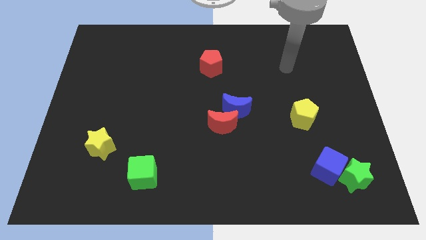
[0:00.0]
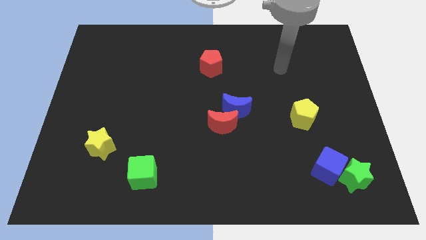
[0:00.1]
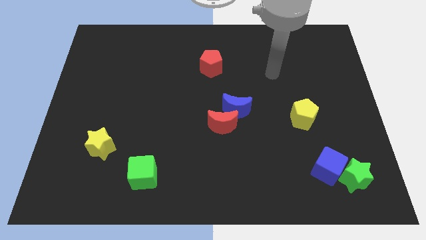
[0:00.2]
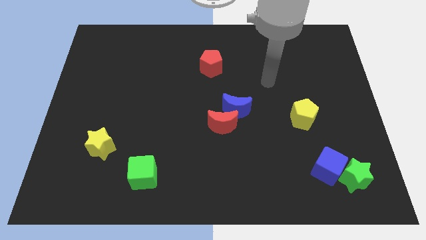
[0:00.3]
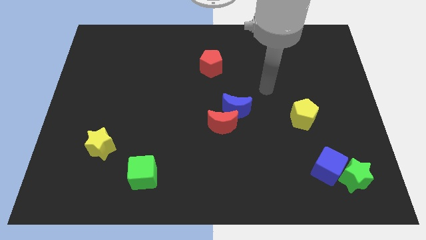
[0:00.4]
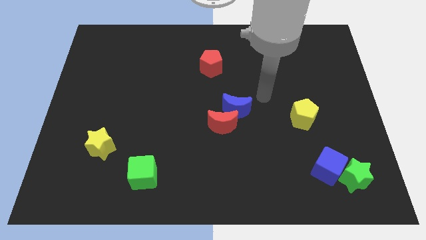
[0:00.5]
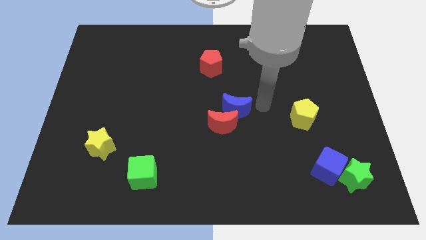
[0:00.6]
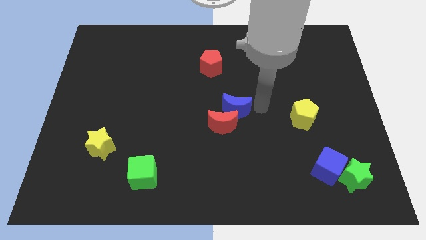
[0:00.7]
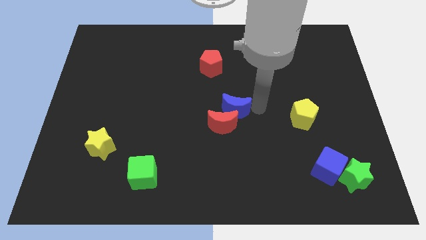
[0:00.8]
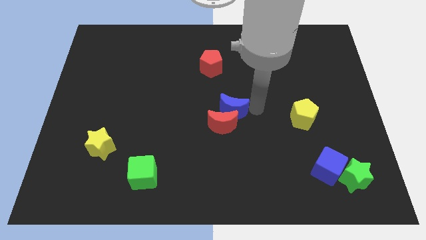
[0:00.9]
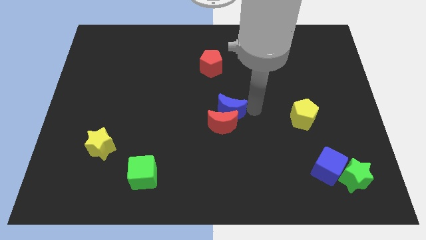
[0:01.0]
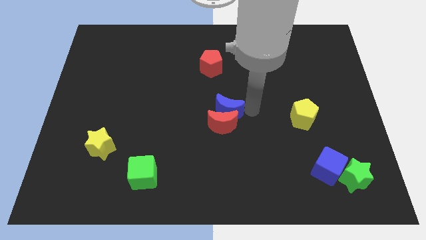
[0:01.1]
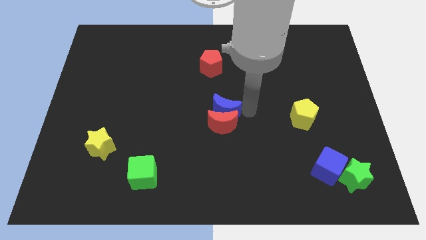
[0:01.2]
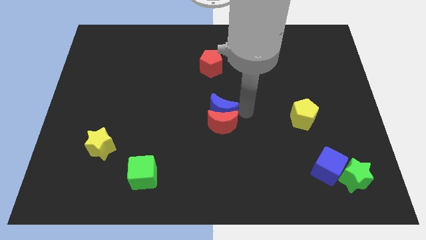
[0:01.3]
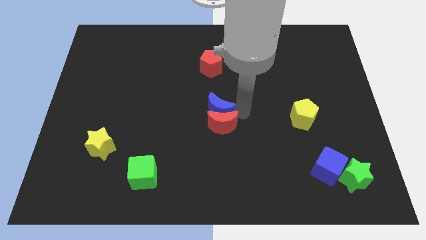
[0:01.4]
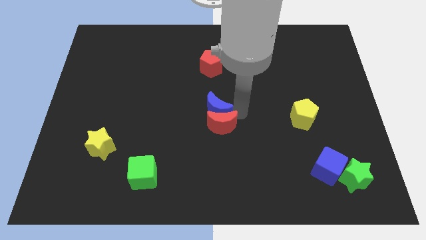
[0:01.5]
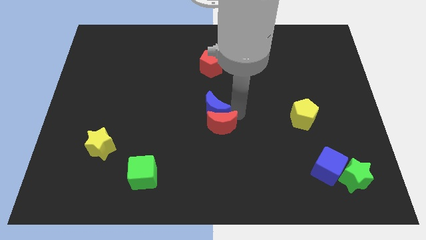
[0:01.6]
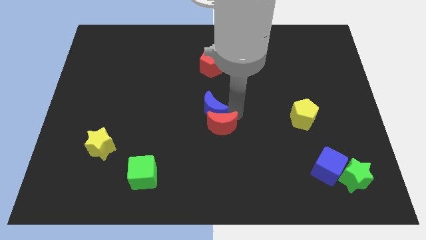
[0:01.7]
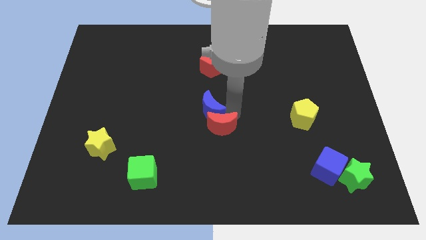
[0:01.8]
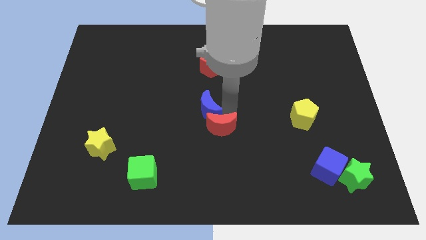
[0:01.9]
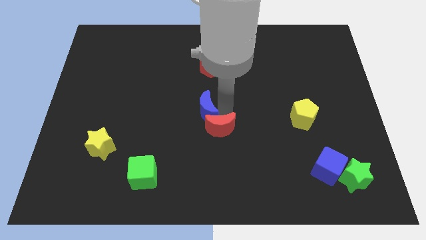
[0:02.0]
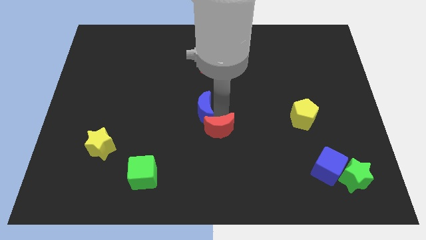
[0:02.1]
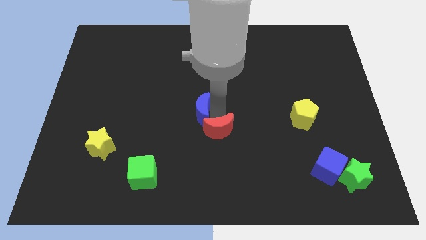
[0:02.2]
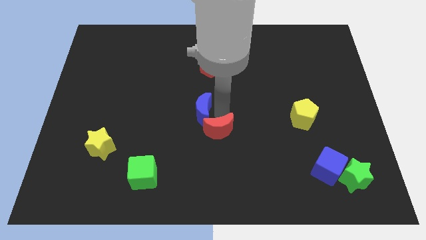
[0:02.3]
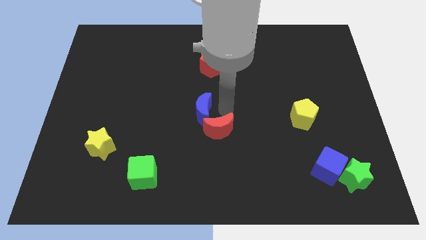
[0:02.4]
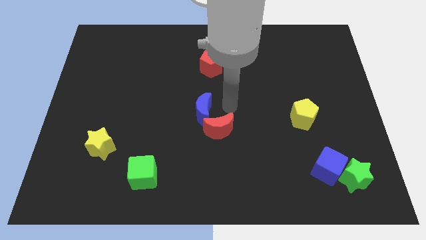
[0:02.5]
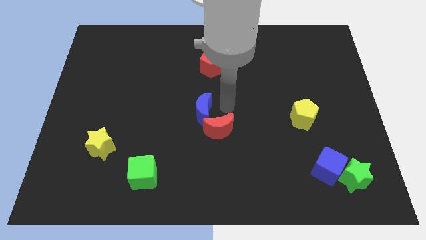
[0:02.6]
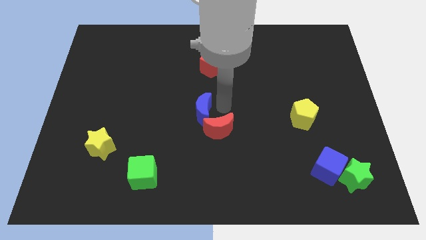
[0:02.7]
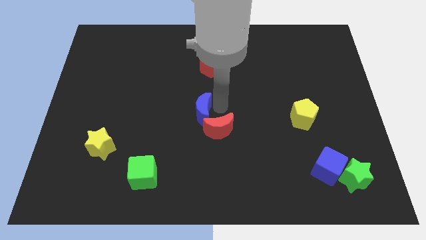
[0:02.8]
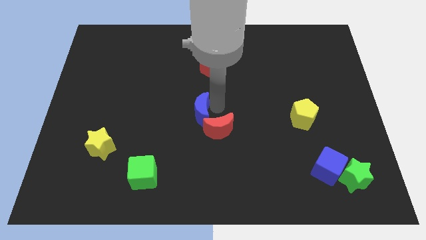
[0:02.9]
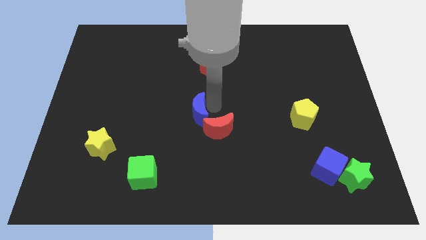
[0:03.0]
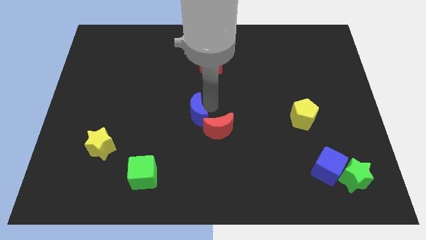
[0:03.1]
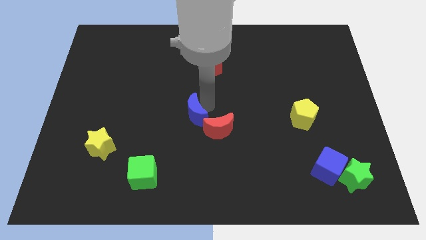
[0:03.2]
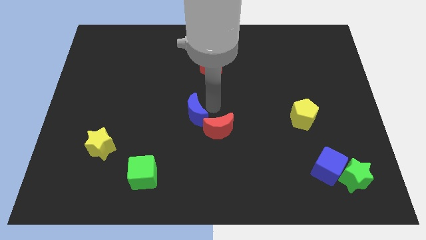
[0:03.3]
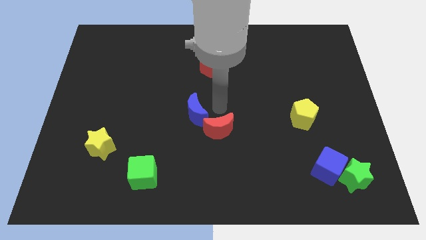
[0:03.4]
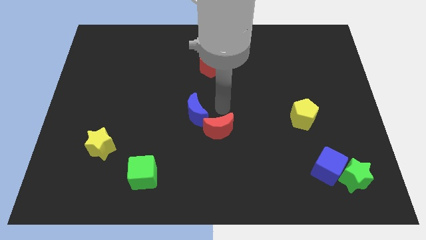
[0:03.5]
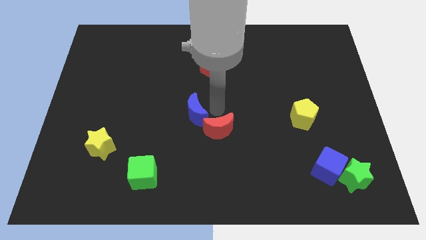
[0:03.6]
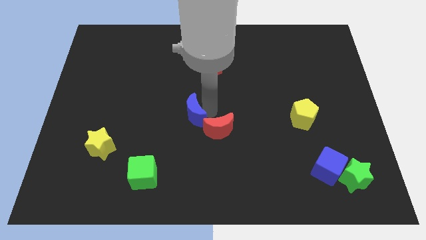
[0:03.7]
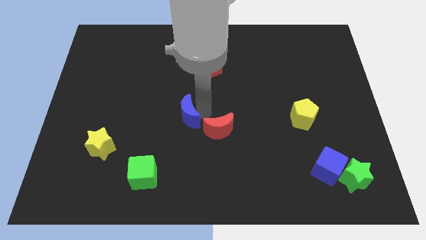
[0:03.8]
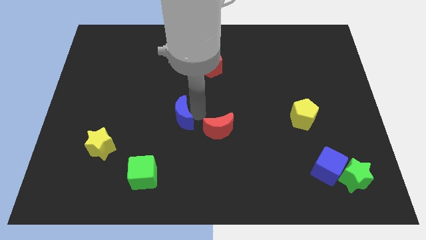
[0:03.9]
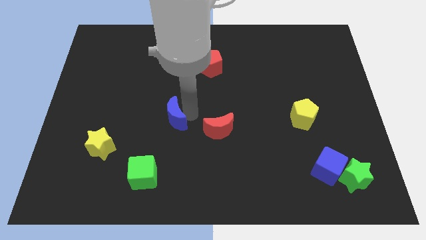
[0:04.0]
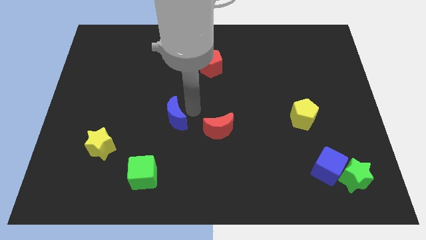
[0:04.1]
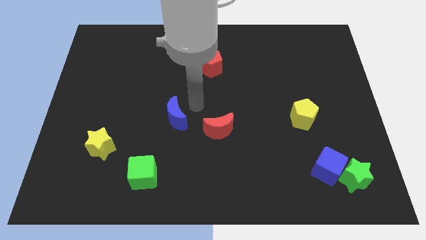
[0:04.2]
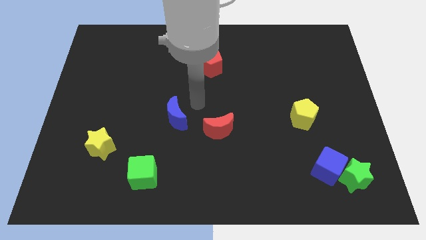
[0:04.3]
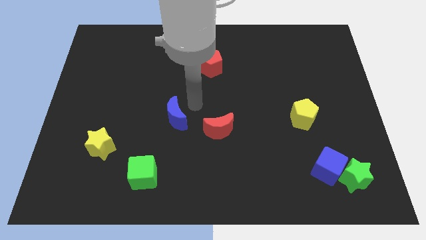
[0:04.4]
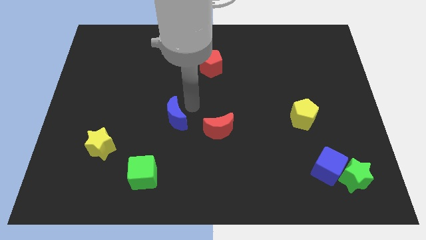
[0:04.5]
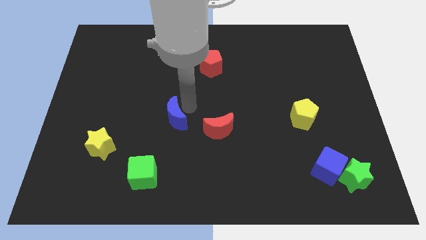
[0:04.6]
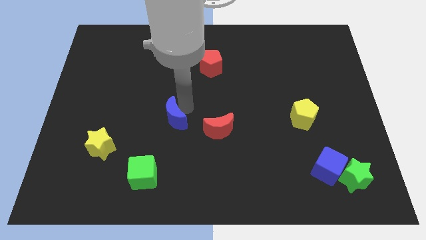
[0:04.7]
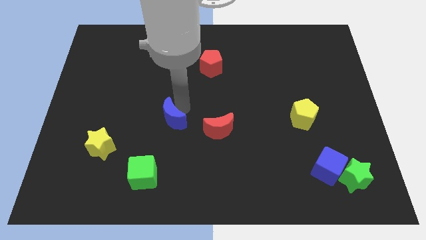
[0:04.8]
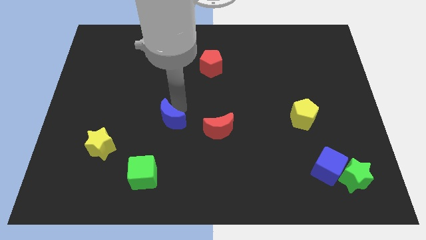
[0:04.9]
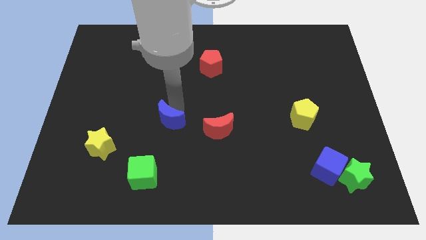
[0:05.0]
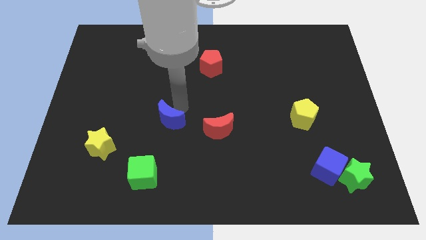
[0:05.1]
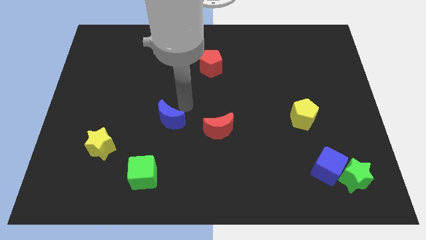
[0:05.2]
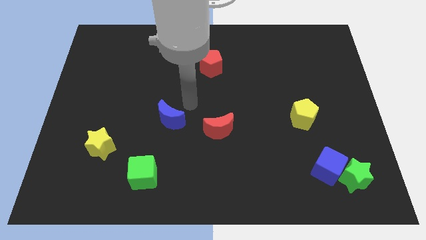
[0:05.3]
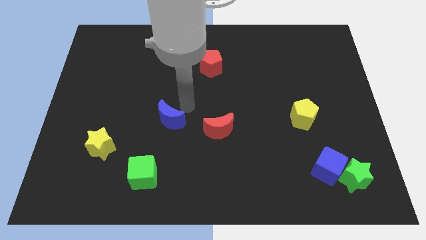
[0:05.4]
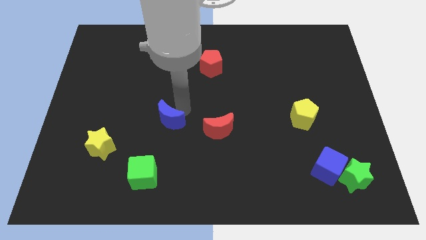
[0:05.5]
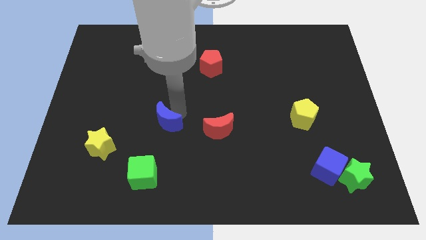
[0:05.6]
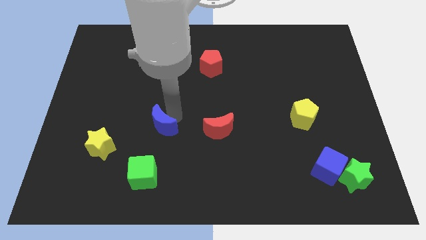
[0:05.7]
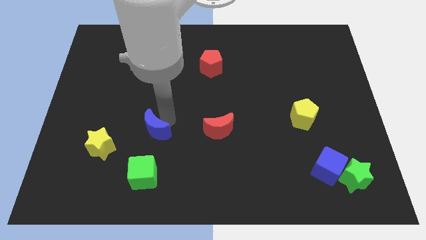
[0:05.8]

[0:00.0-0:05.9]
slide the blue moon to the right of the yellow star

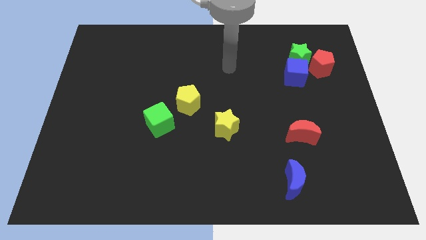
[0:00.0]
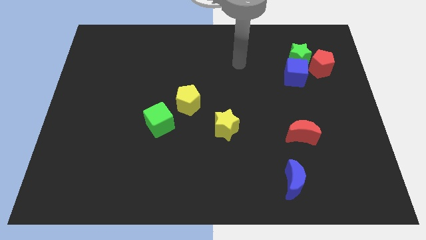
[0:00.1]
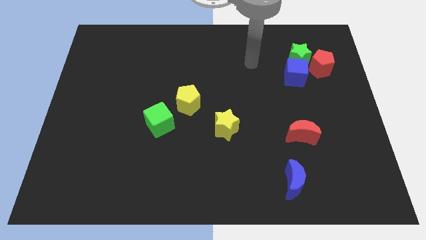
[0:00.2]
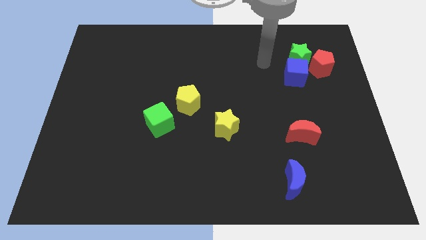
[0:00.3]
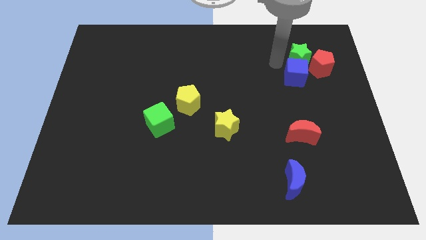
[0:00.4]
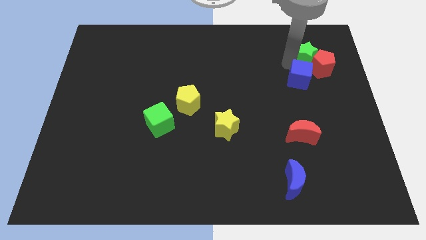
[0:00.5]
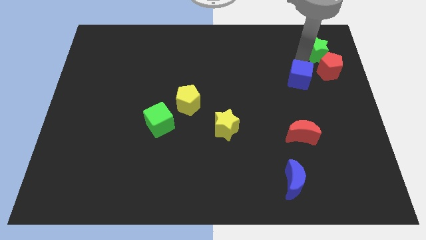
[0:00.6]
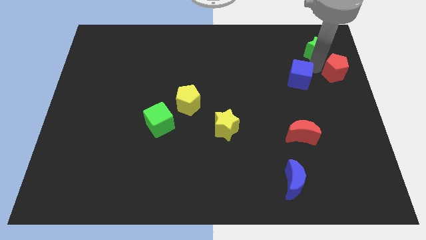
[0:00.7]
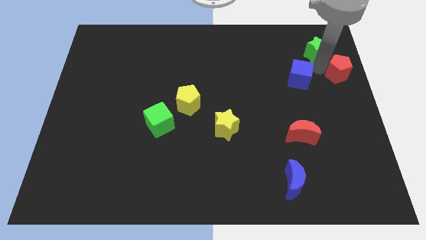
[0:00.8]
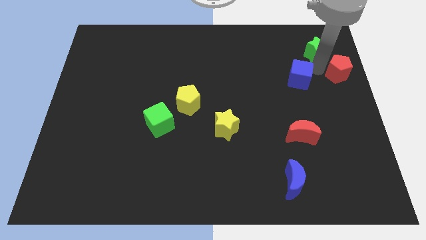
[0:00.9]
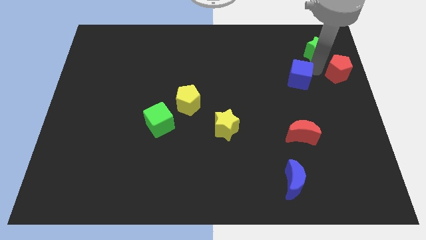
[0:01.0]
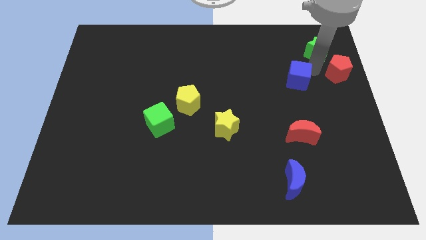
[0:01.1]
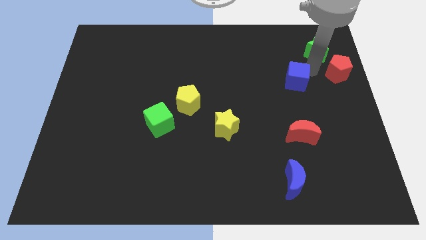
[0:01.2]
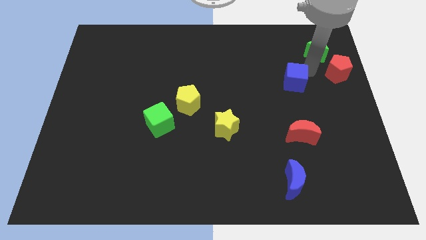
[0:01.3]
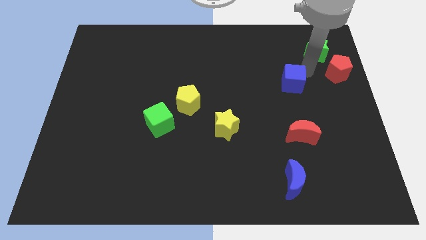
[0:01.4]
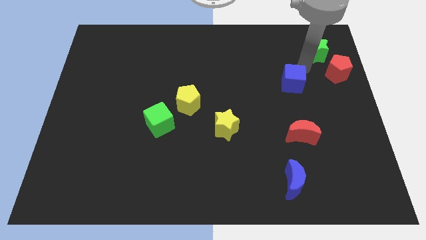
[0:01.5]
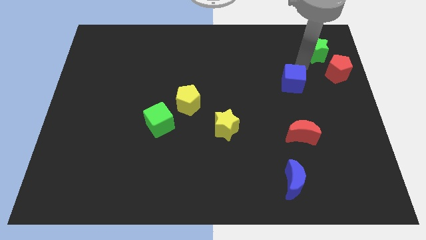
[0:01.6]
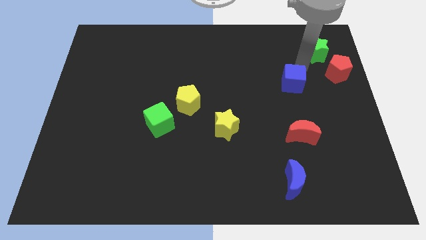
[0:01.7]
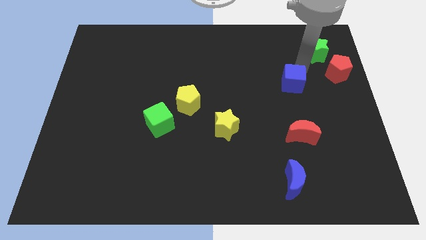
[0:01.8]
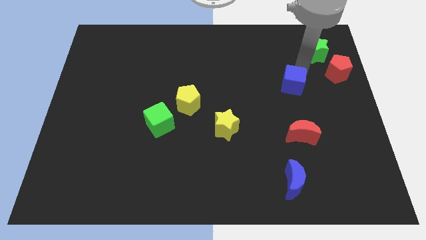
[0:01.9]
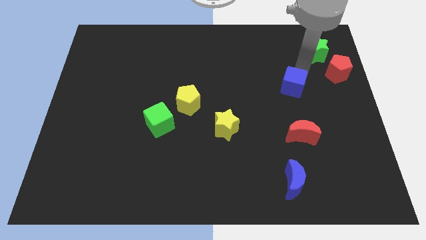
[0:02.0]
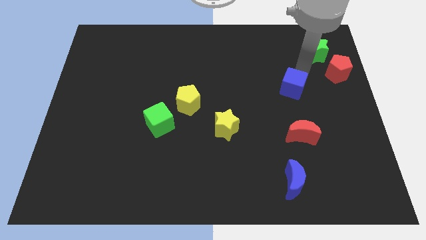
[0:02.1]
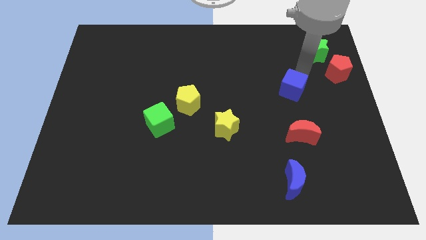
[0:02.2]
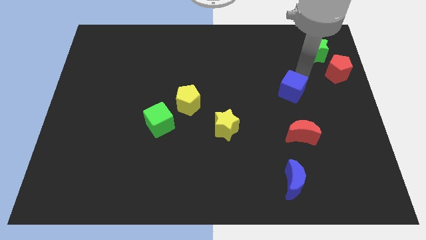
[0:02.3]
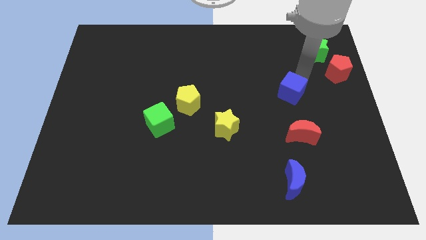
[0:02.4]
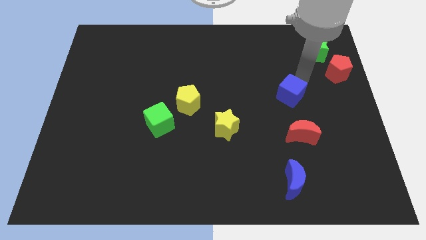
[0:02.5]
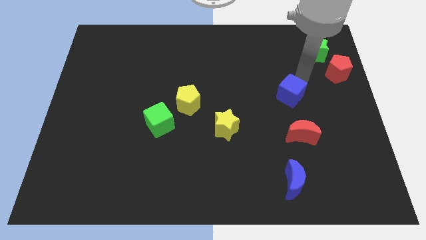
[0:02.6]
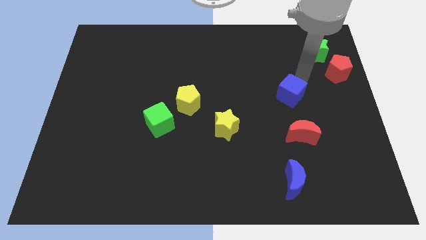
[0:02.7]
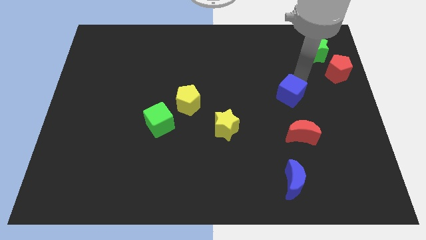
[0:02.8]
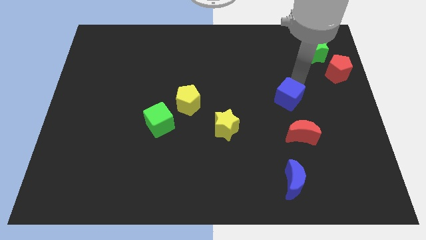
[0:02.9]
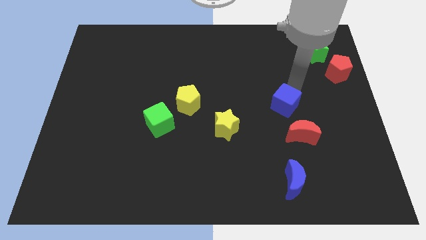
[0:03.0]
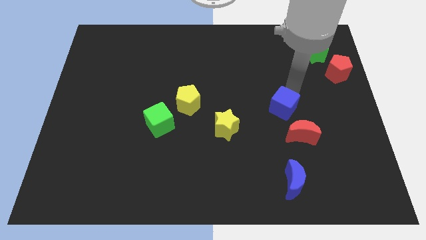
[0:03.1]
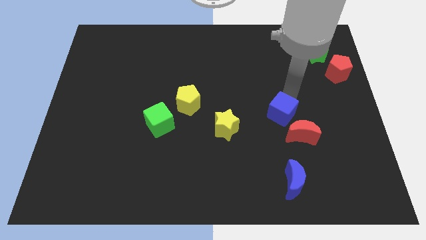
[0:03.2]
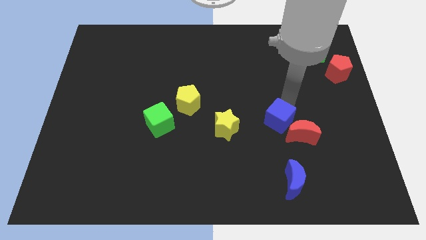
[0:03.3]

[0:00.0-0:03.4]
push the blue cube to the left of the red moon
